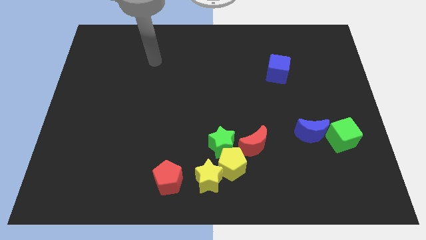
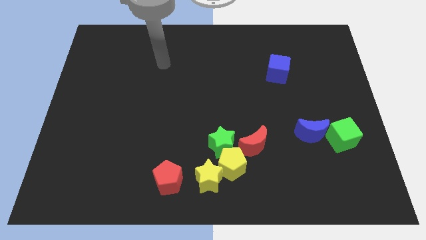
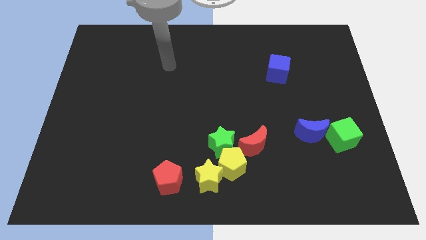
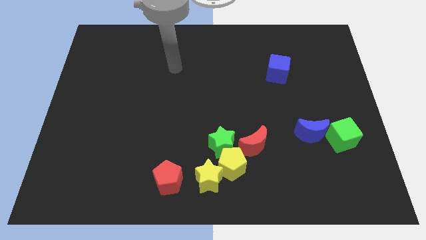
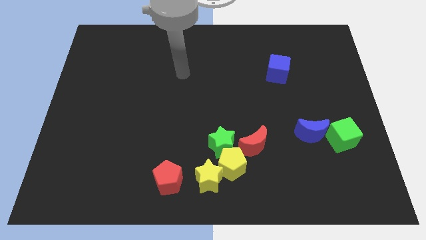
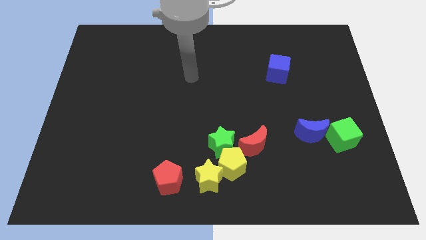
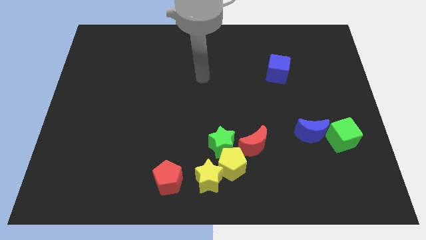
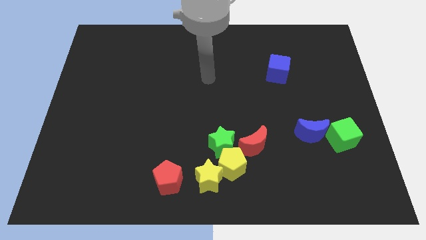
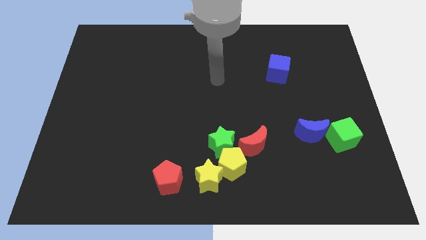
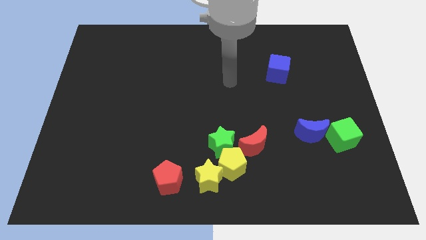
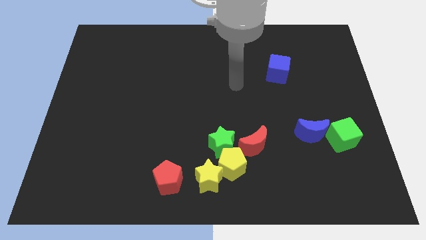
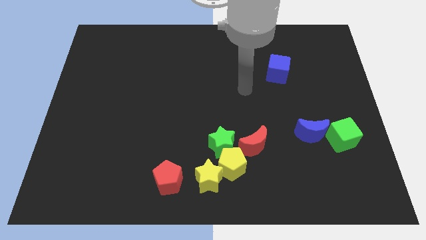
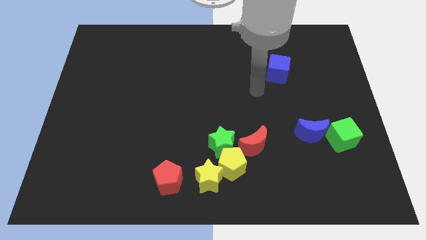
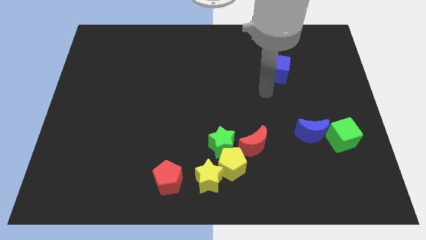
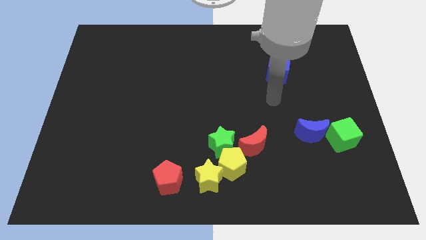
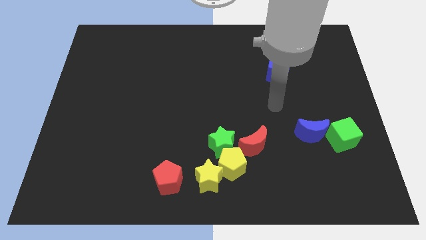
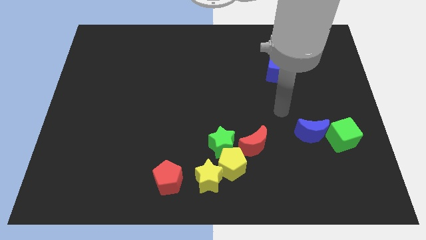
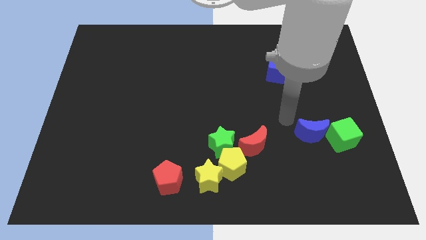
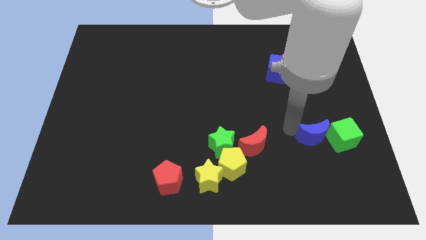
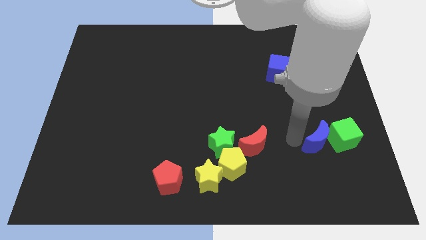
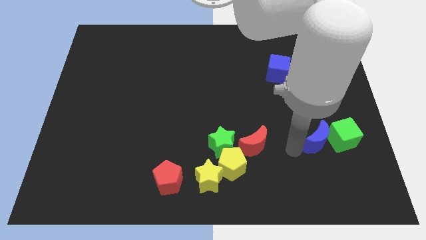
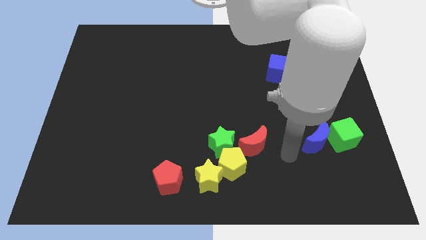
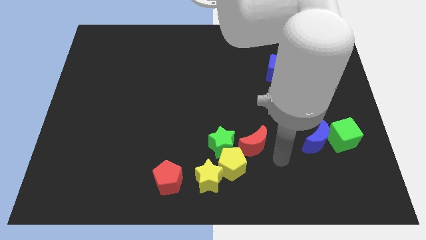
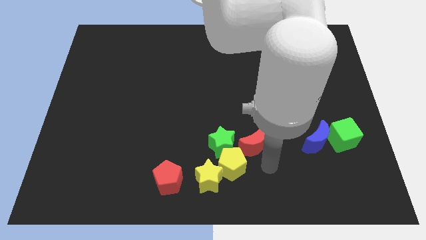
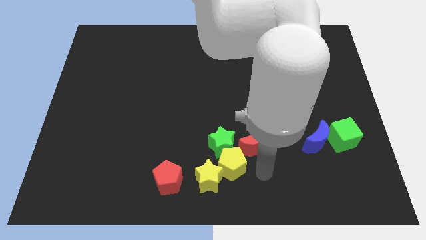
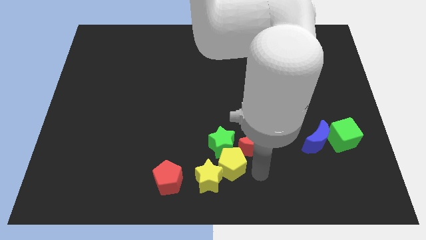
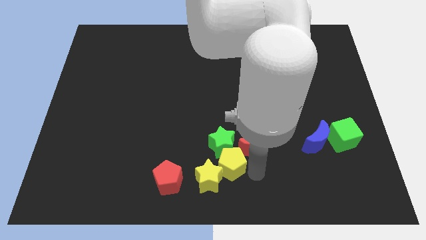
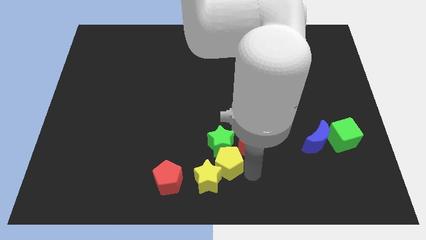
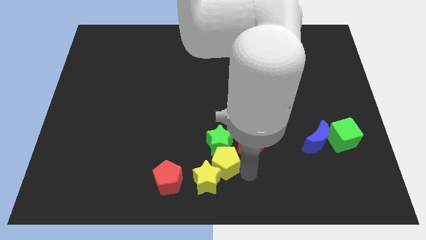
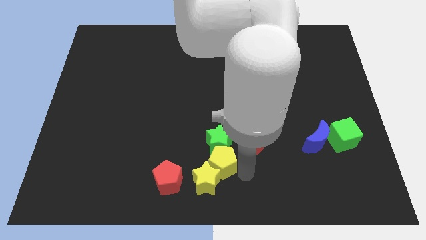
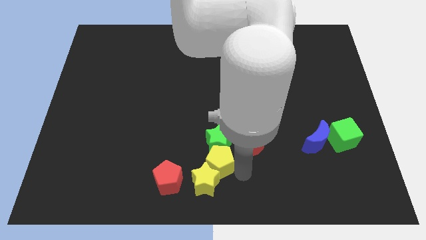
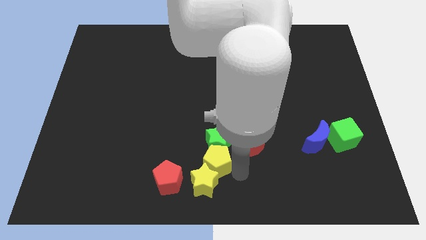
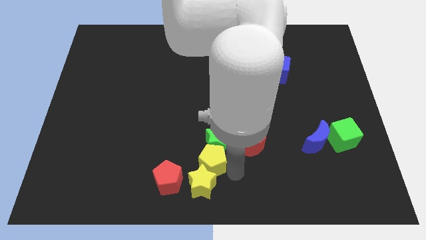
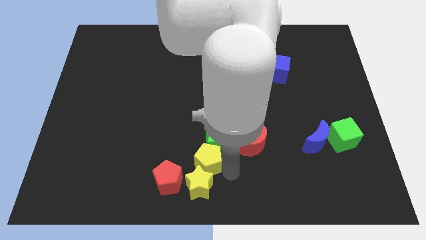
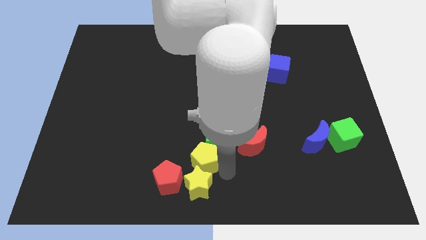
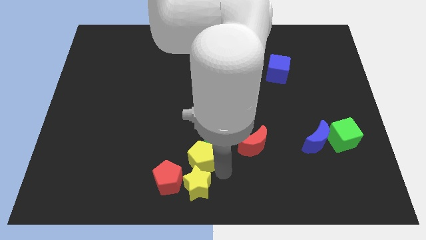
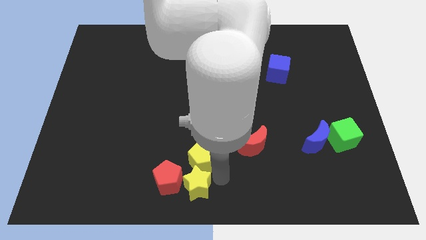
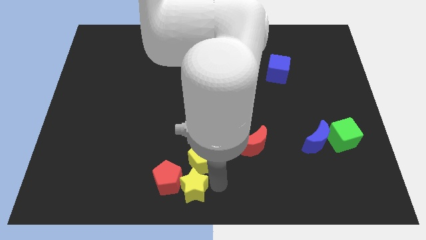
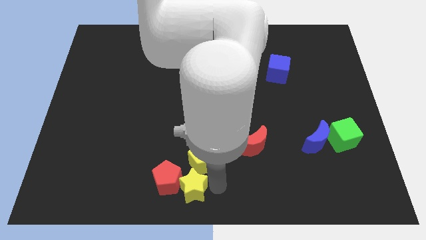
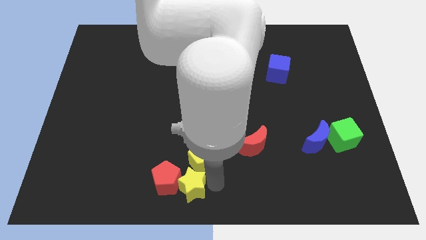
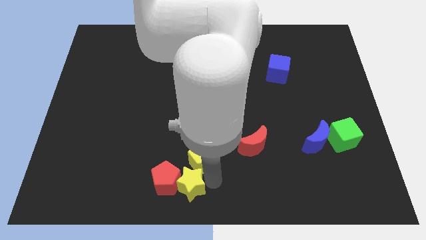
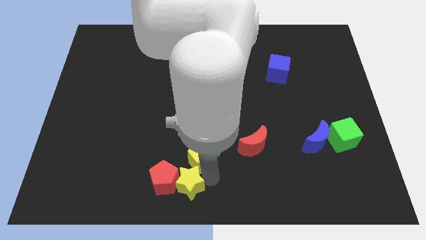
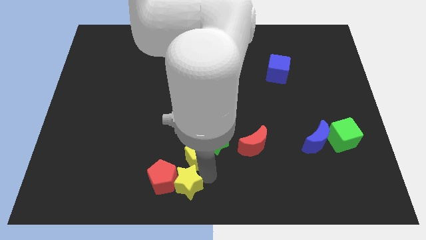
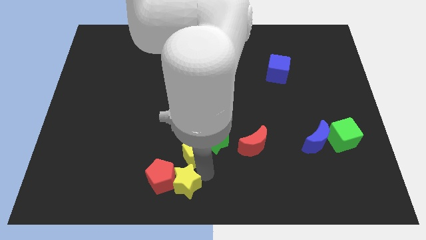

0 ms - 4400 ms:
move the yellow pentagon up and to the left diagonally a bit

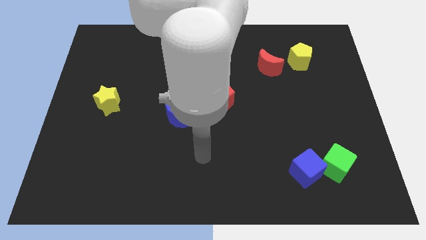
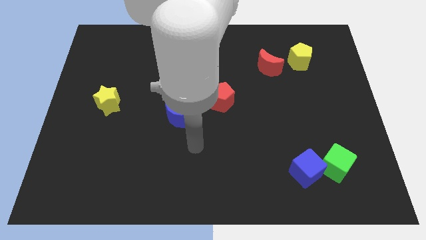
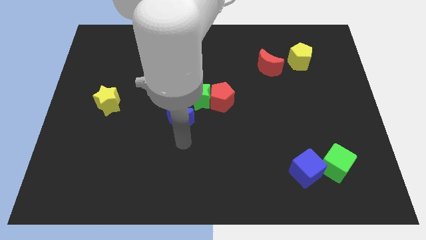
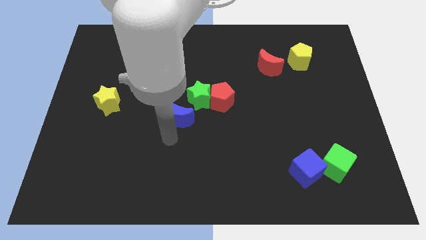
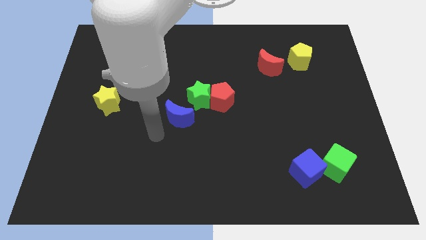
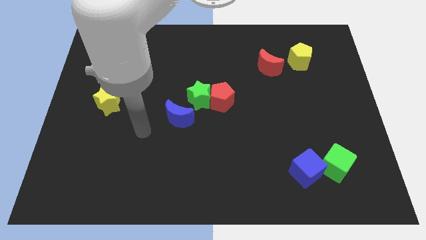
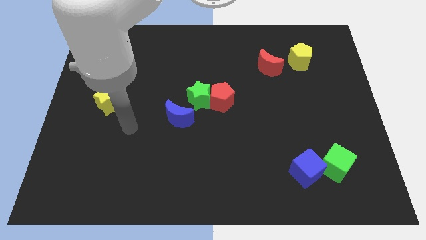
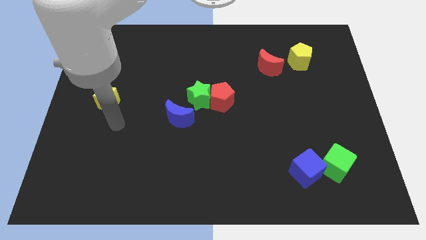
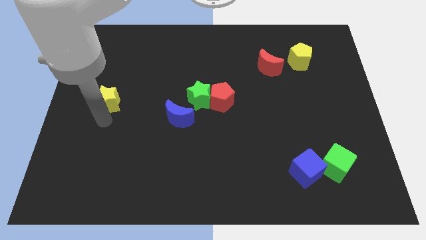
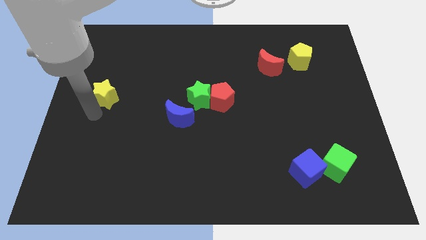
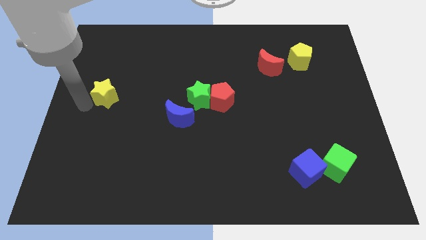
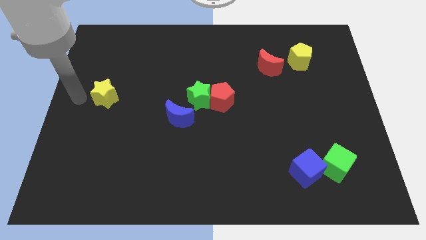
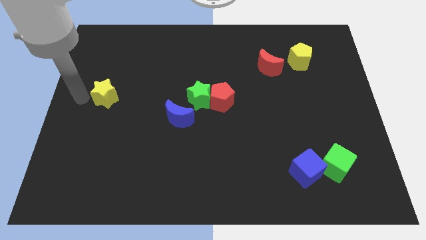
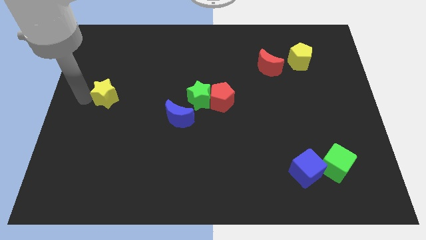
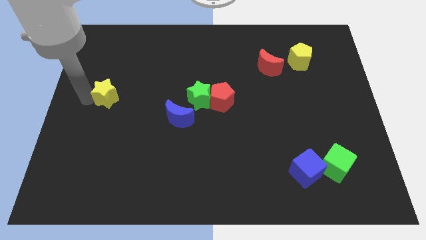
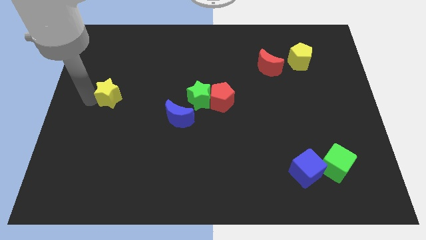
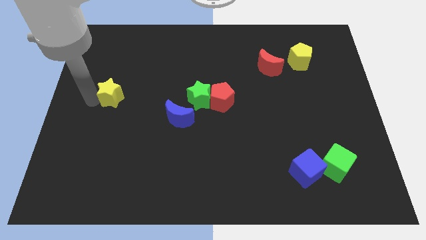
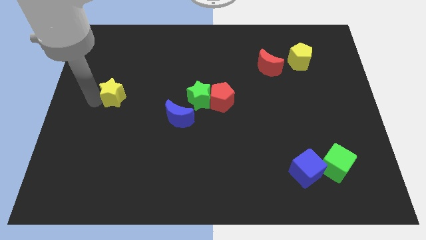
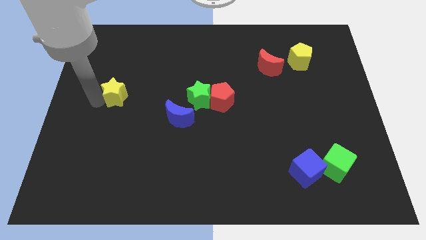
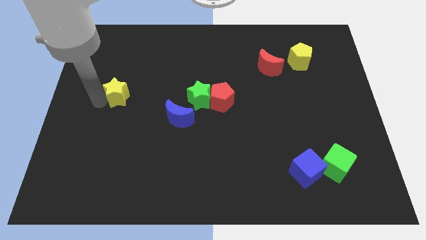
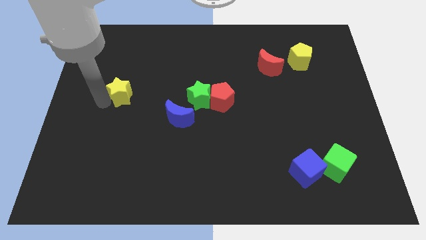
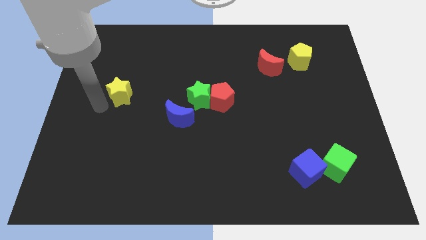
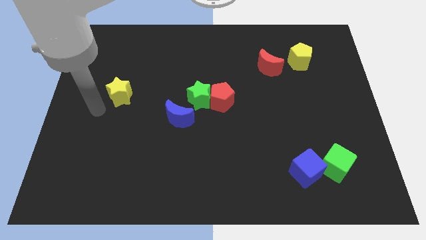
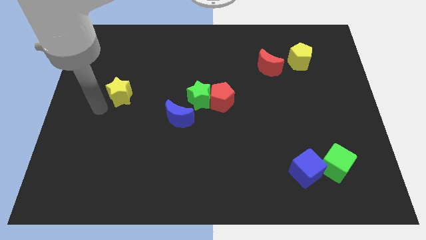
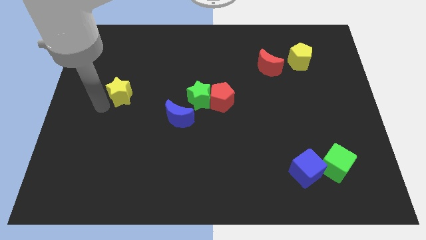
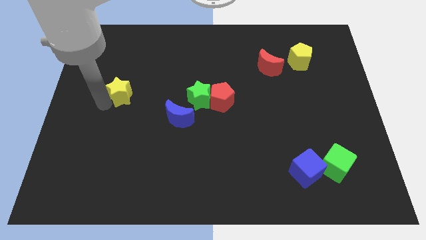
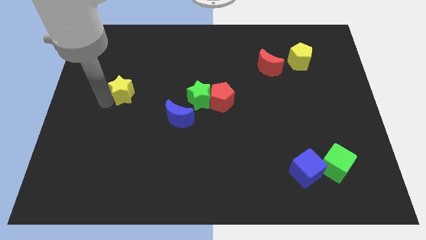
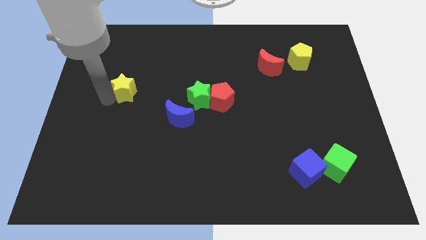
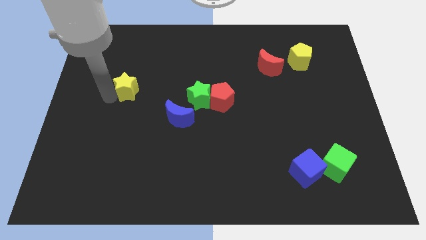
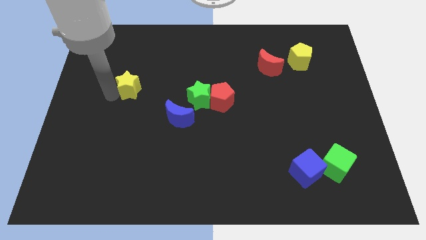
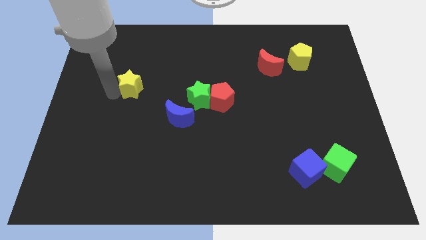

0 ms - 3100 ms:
slide the yellow star a little diagonally up and right

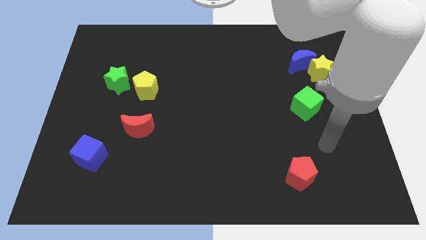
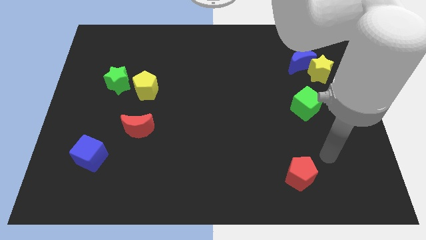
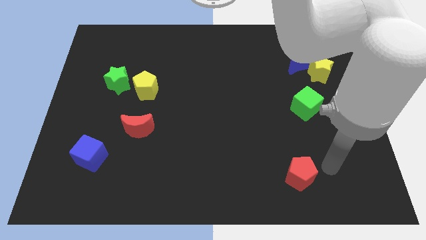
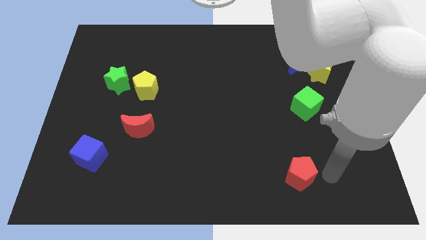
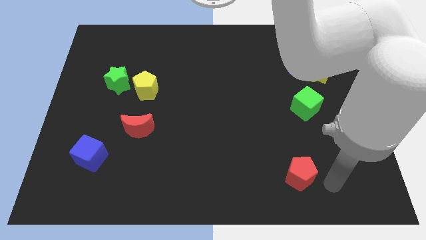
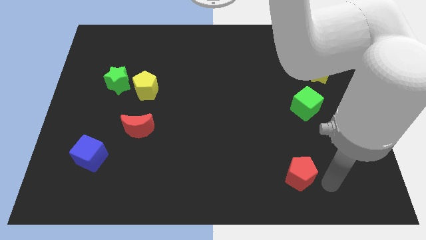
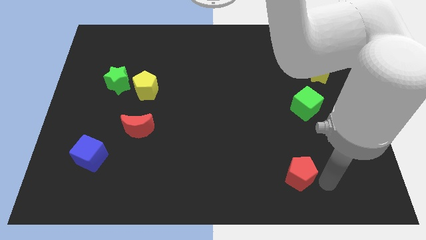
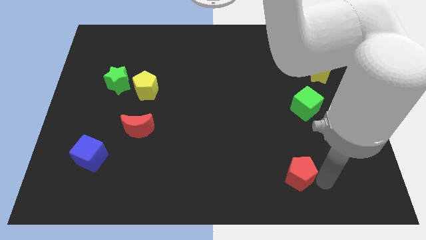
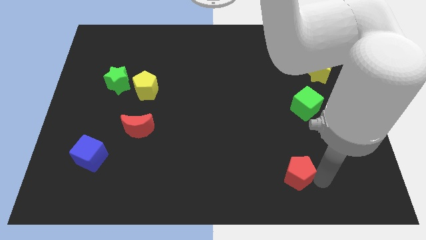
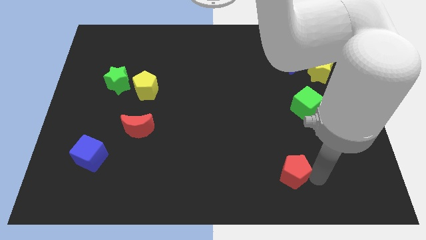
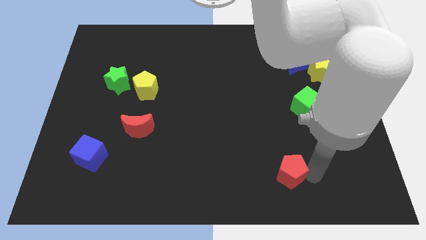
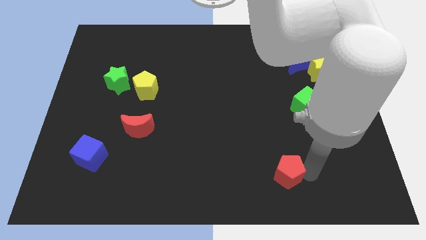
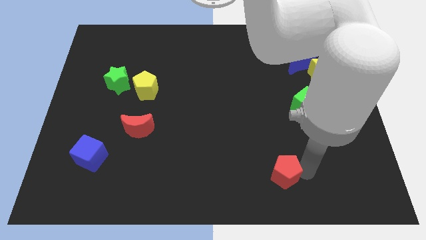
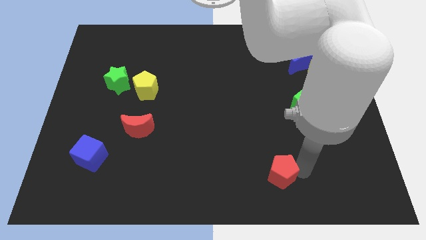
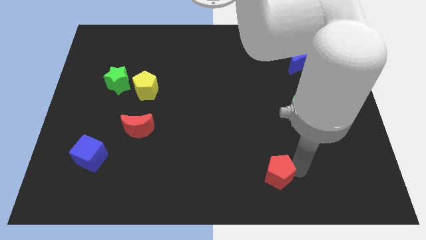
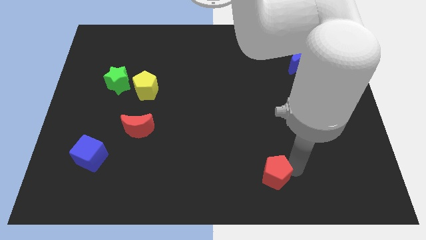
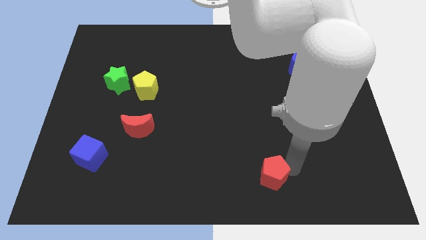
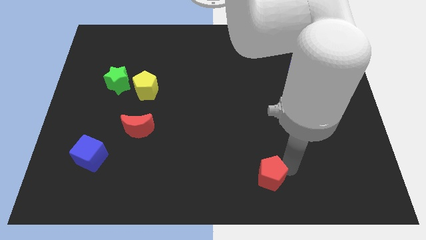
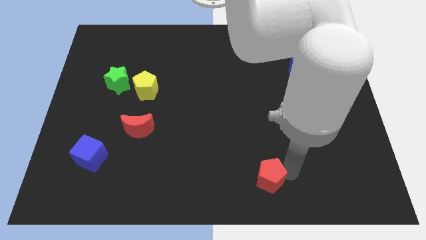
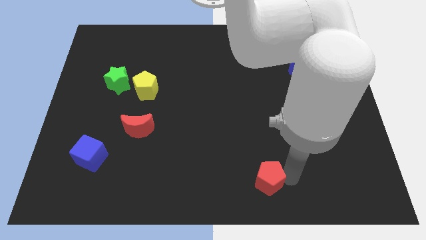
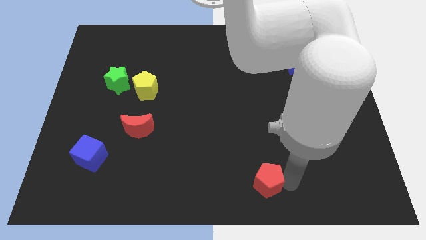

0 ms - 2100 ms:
push the red pentagon slightly left
